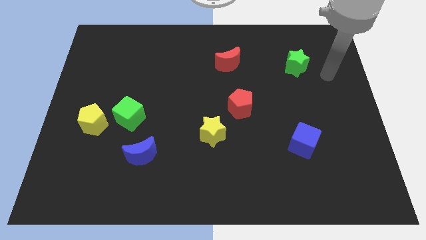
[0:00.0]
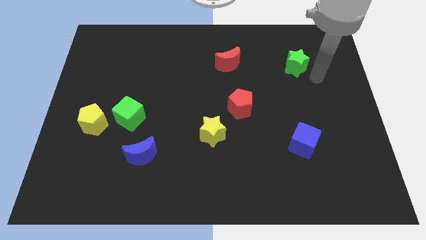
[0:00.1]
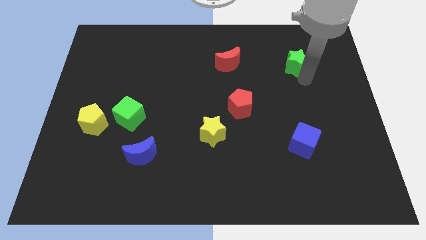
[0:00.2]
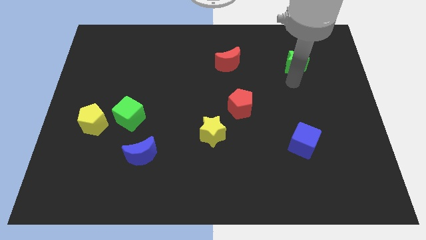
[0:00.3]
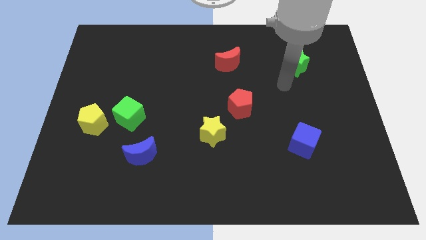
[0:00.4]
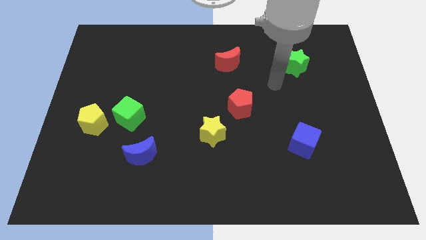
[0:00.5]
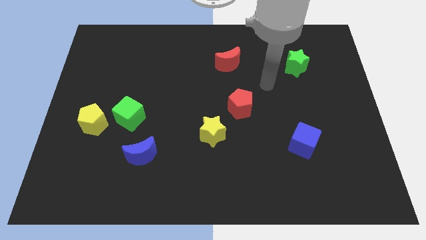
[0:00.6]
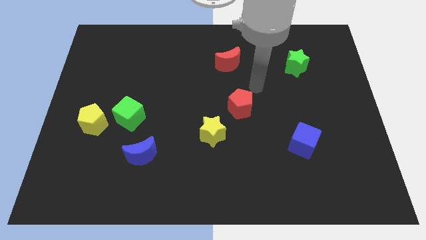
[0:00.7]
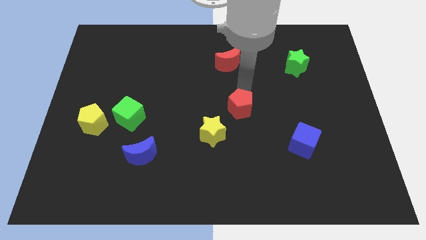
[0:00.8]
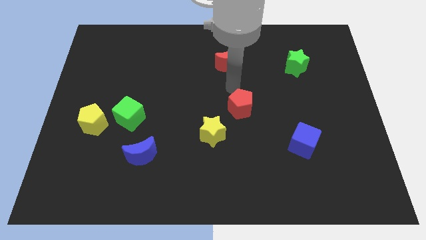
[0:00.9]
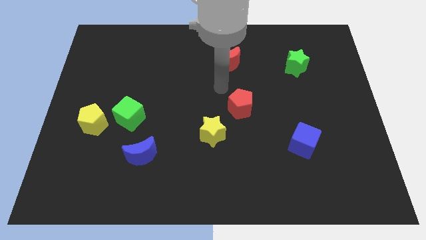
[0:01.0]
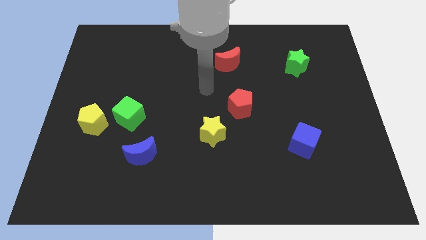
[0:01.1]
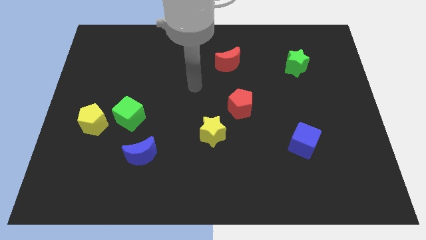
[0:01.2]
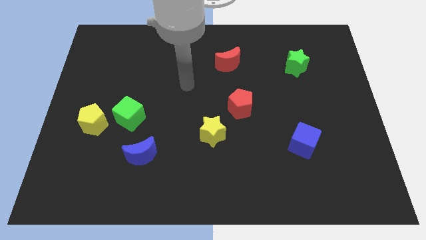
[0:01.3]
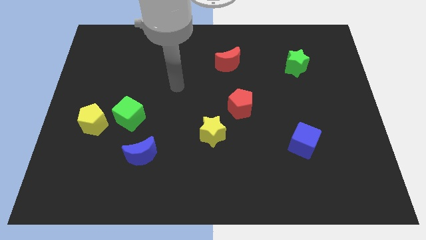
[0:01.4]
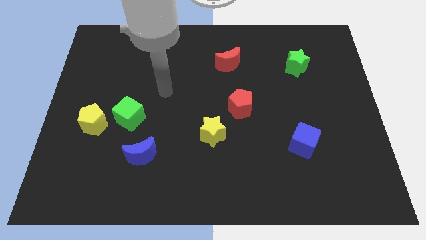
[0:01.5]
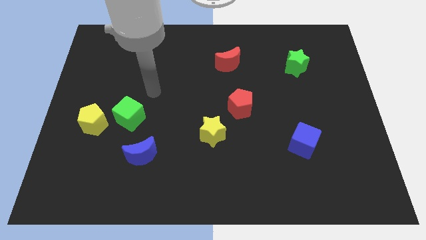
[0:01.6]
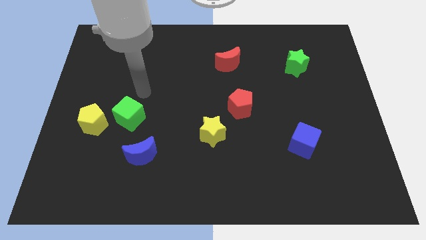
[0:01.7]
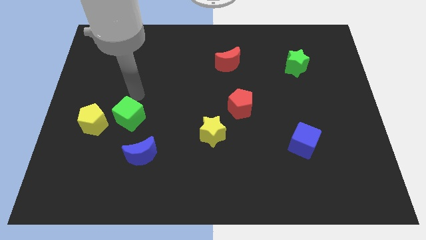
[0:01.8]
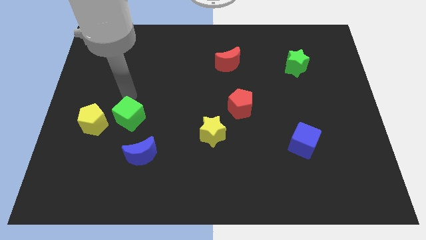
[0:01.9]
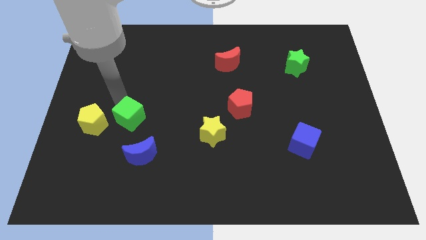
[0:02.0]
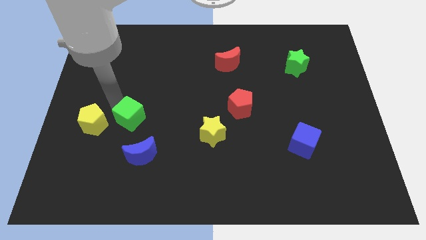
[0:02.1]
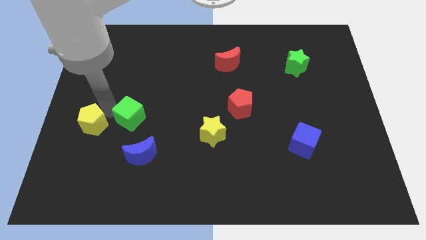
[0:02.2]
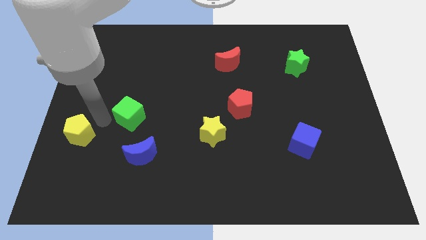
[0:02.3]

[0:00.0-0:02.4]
separate the green cube from the yellow pentagon

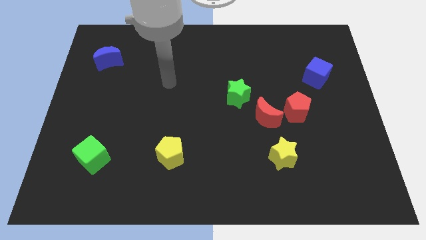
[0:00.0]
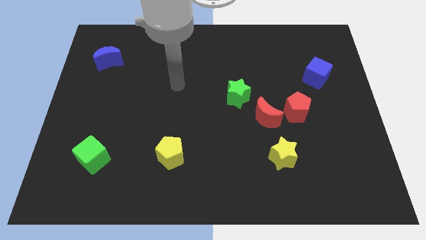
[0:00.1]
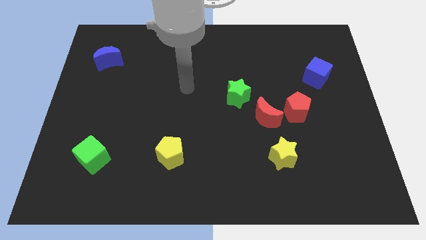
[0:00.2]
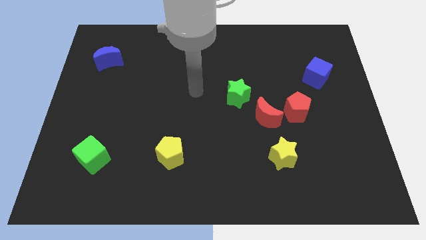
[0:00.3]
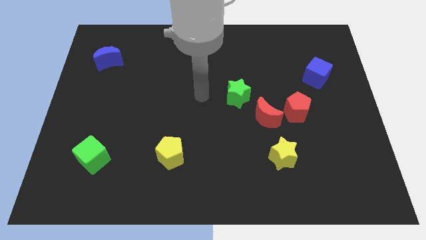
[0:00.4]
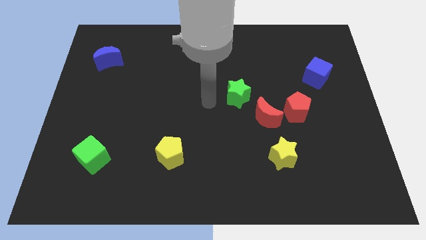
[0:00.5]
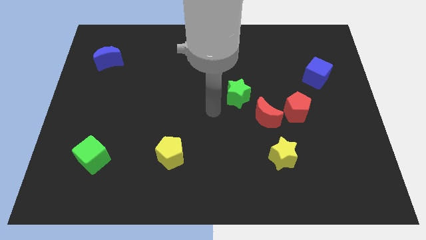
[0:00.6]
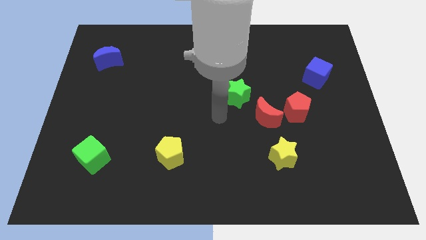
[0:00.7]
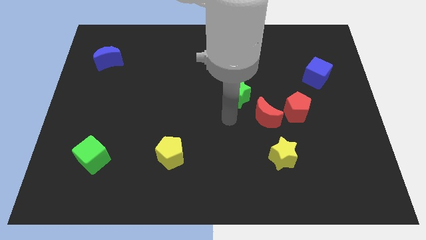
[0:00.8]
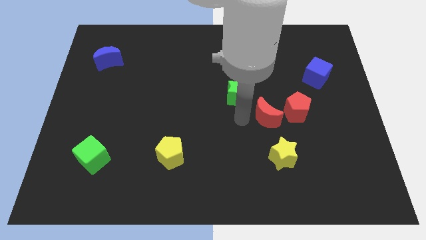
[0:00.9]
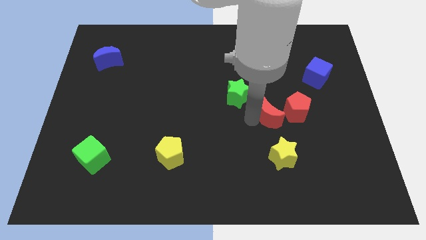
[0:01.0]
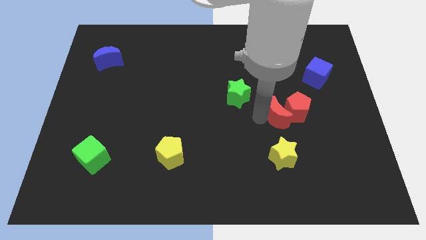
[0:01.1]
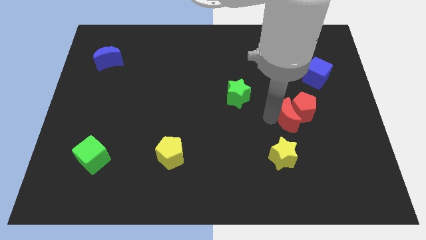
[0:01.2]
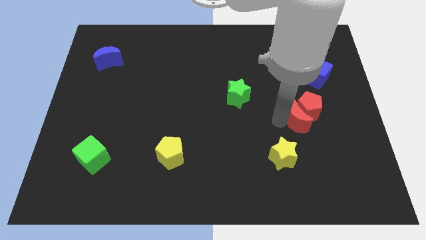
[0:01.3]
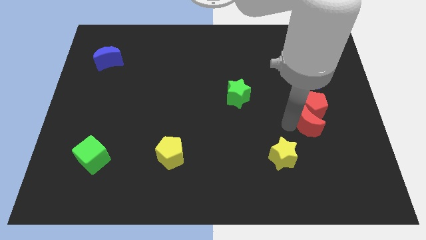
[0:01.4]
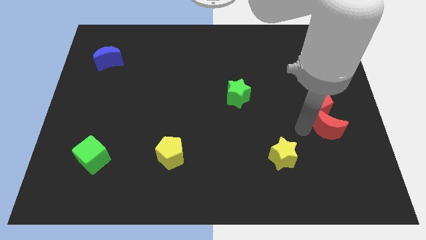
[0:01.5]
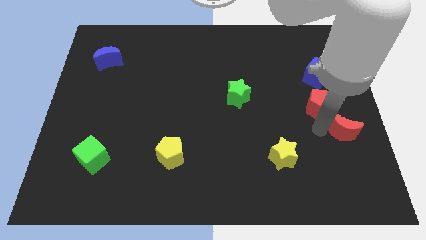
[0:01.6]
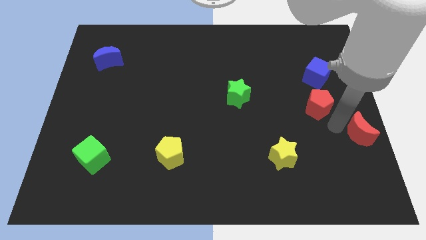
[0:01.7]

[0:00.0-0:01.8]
move the red pentagon away from the red moon

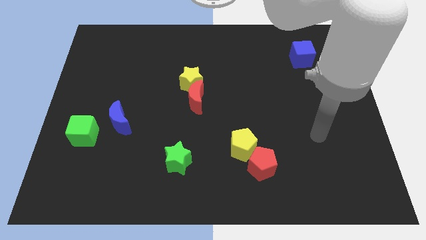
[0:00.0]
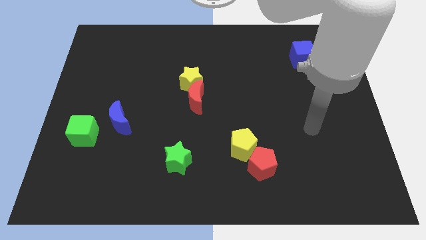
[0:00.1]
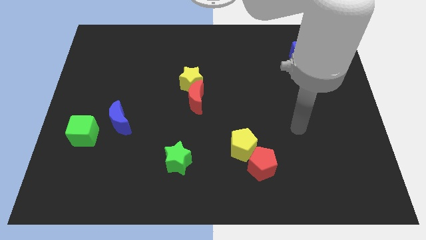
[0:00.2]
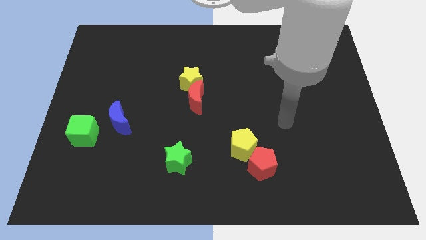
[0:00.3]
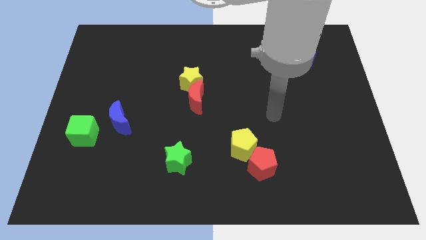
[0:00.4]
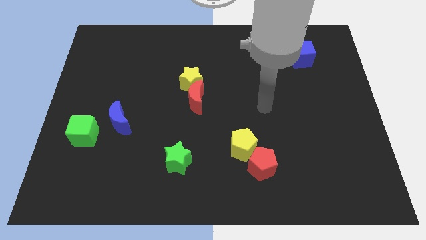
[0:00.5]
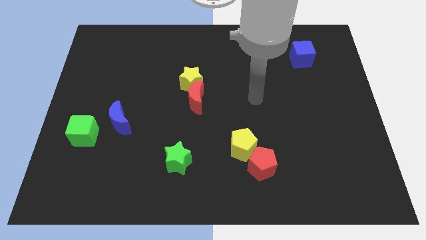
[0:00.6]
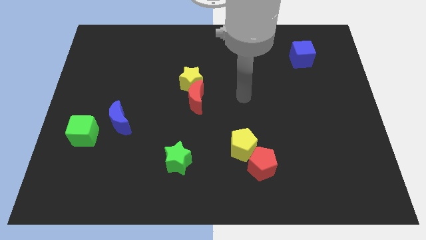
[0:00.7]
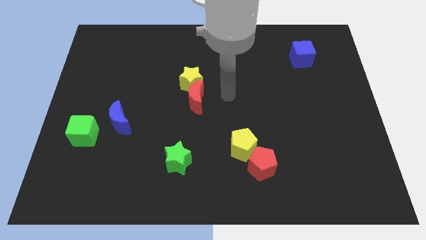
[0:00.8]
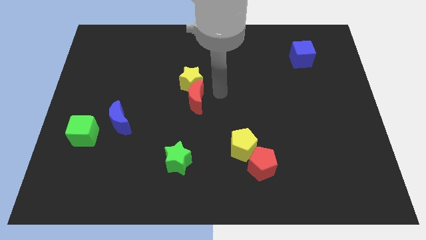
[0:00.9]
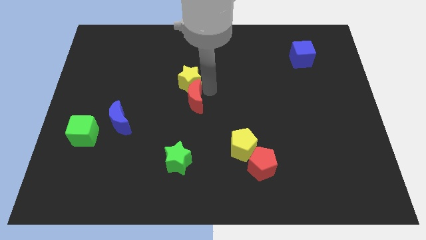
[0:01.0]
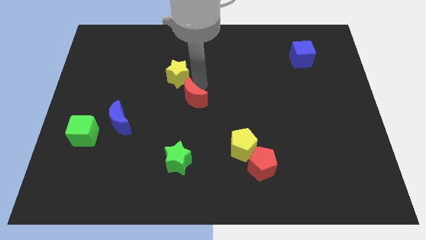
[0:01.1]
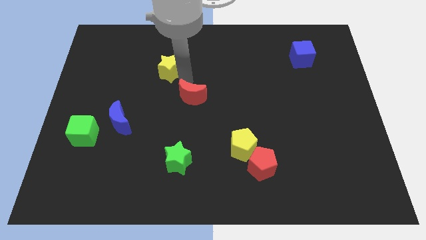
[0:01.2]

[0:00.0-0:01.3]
pull the red moon apart from the yellow star

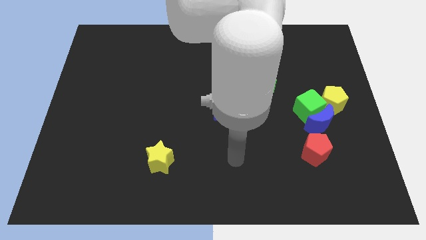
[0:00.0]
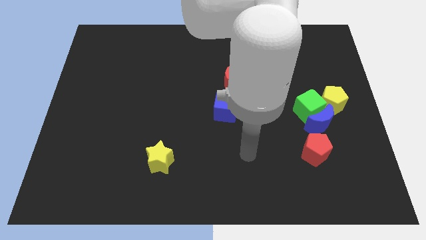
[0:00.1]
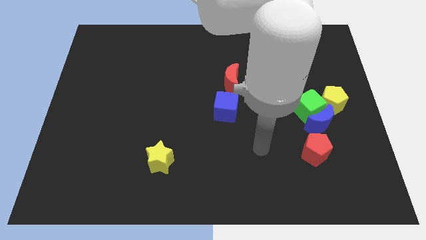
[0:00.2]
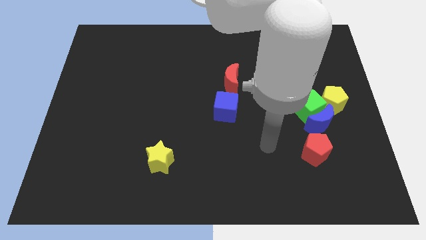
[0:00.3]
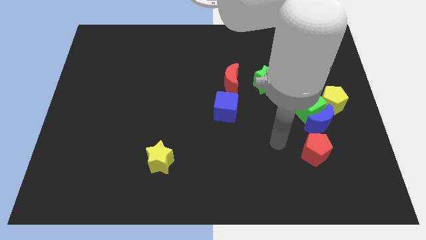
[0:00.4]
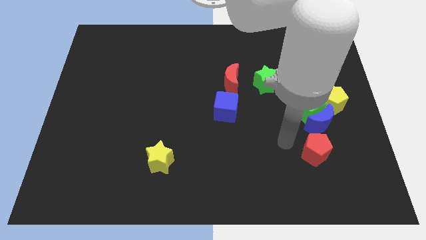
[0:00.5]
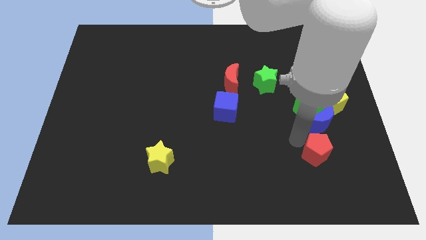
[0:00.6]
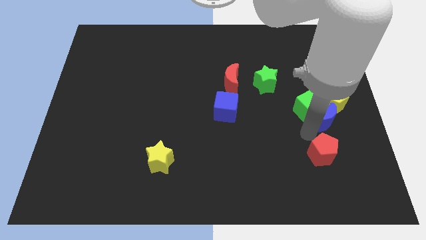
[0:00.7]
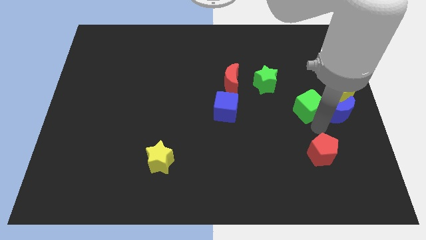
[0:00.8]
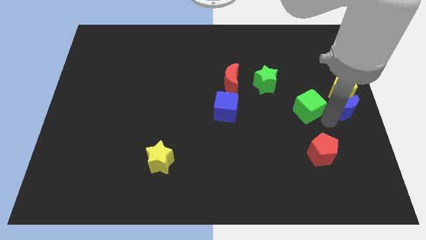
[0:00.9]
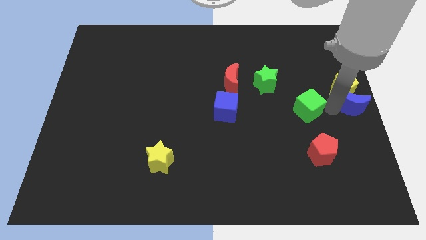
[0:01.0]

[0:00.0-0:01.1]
separate the green cube from the blue moon and yellow pentagon

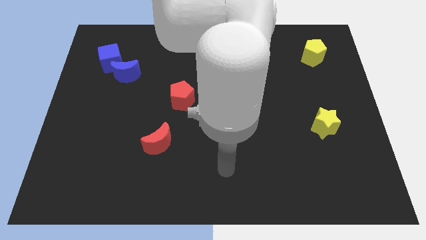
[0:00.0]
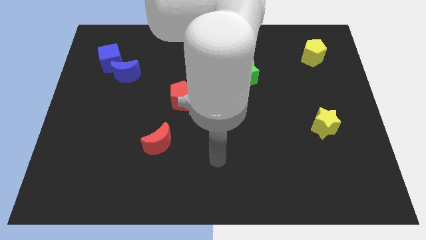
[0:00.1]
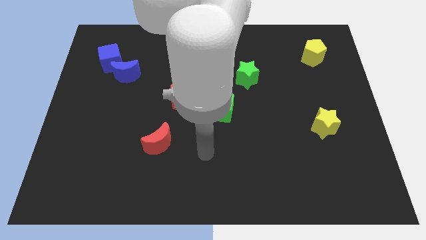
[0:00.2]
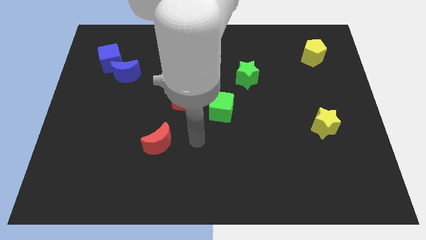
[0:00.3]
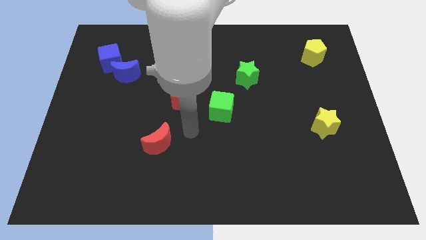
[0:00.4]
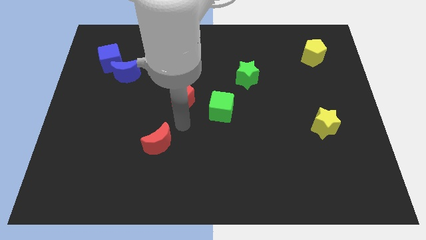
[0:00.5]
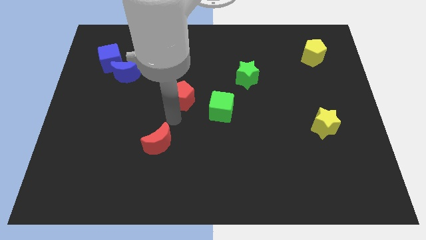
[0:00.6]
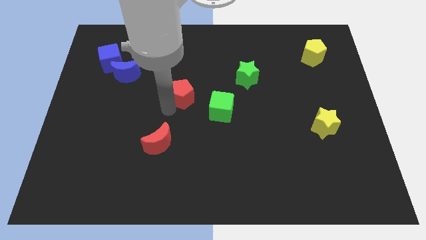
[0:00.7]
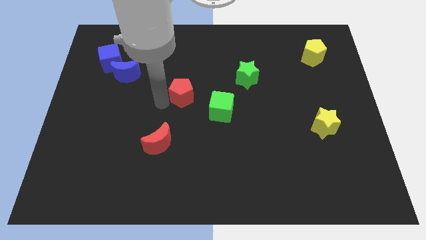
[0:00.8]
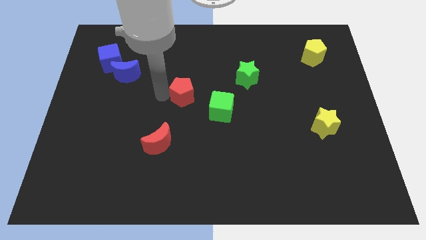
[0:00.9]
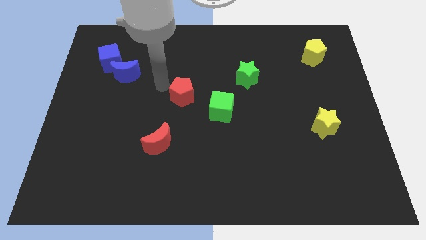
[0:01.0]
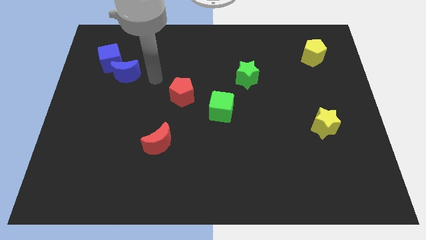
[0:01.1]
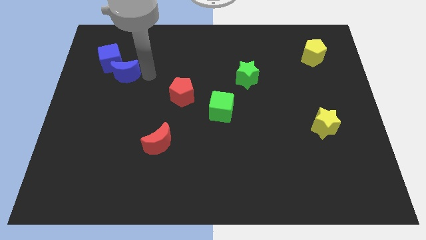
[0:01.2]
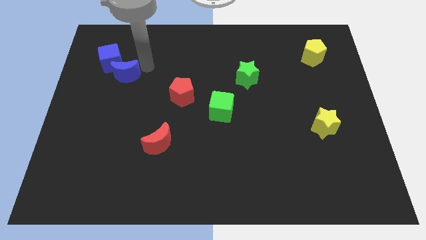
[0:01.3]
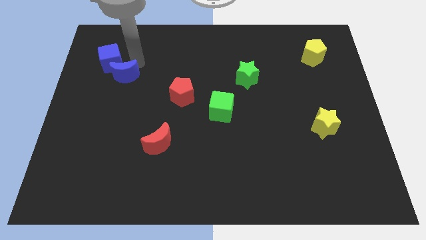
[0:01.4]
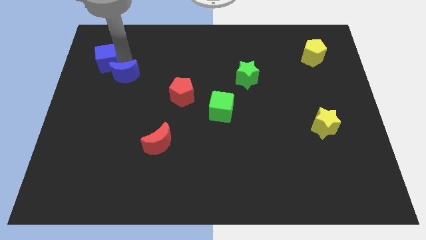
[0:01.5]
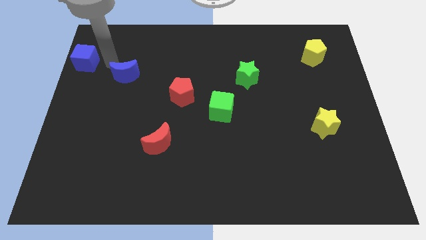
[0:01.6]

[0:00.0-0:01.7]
move the blue moon away from the blue cube

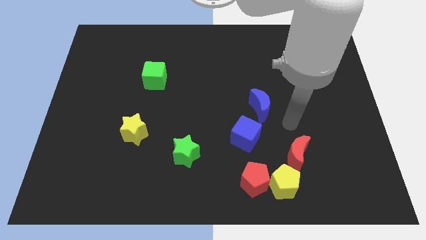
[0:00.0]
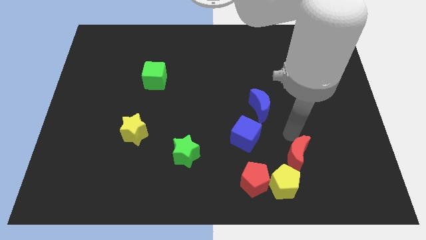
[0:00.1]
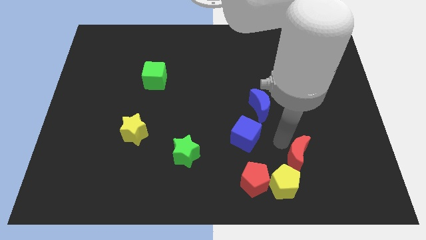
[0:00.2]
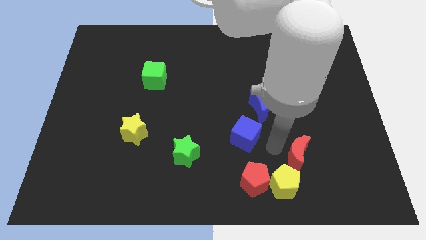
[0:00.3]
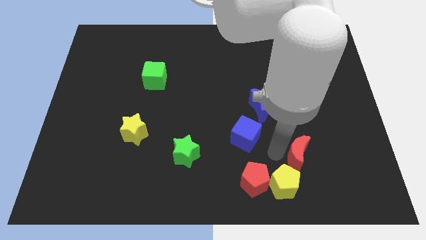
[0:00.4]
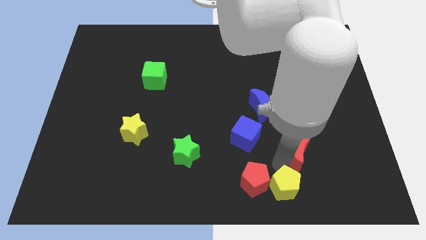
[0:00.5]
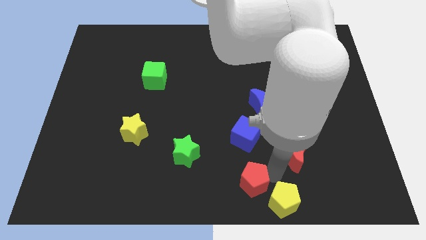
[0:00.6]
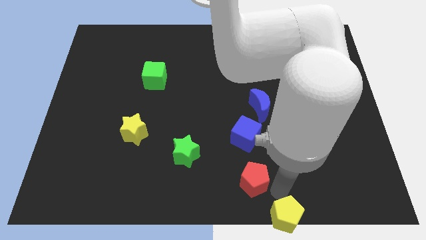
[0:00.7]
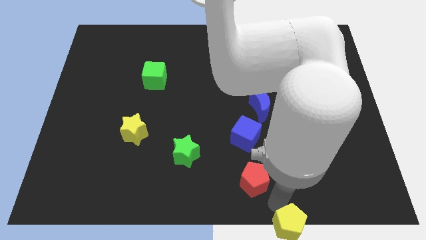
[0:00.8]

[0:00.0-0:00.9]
separate the red pentagon from the yellow pentagon

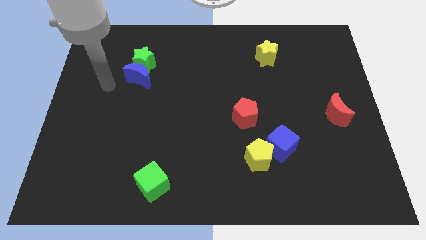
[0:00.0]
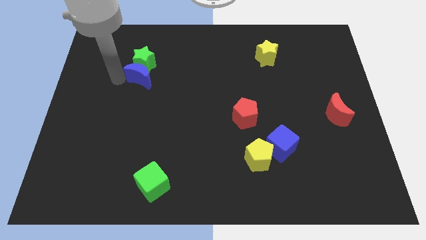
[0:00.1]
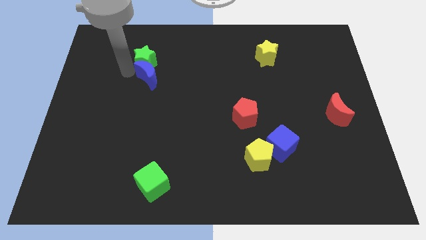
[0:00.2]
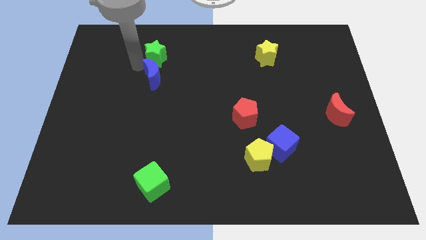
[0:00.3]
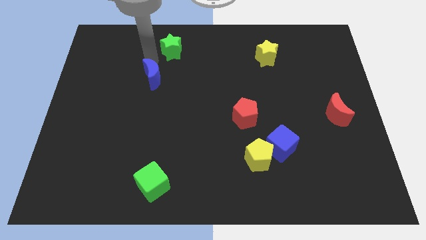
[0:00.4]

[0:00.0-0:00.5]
separate the blue moon from the green star
